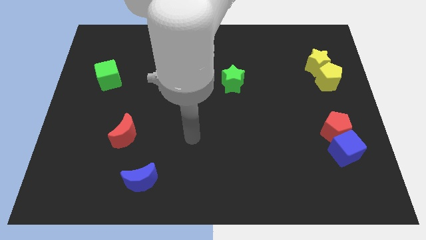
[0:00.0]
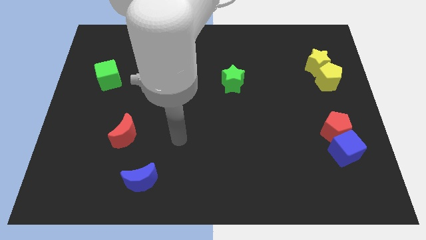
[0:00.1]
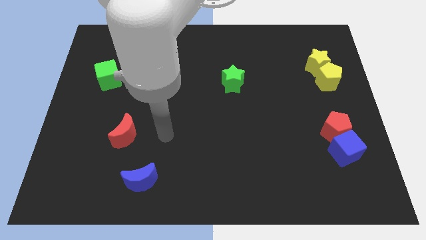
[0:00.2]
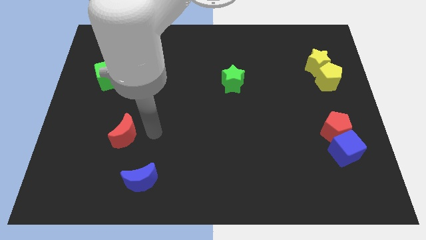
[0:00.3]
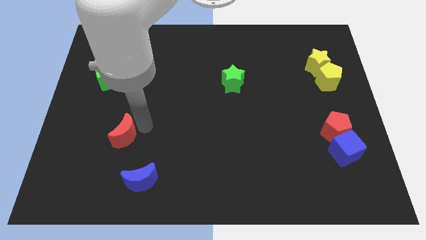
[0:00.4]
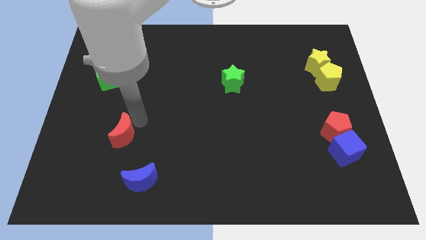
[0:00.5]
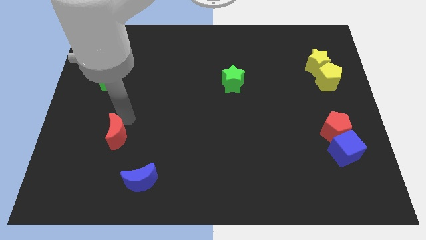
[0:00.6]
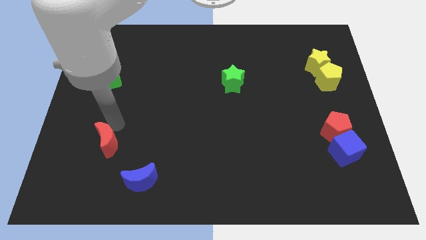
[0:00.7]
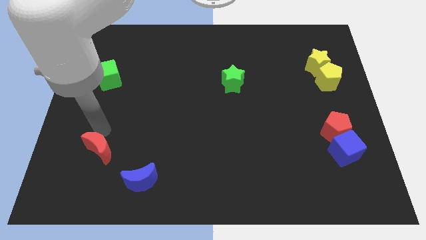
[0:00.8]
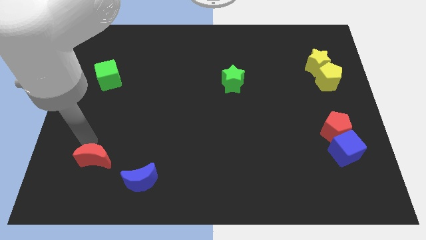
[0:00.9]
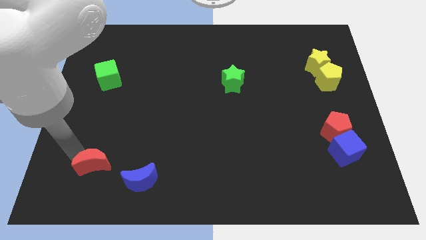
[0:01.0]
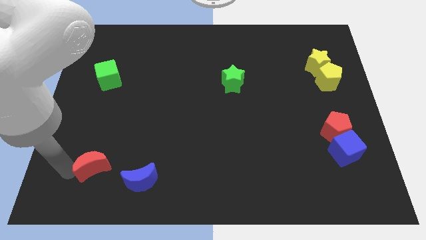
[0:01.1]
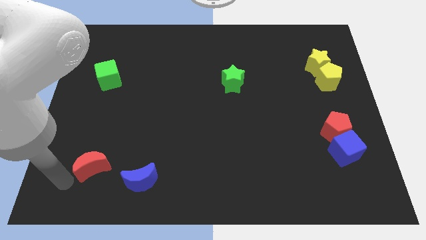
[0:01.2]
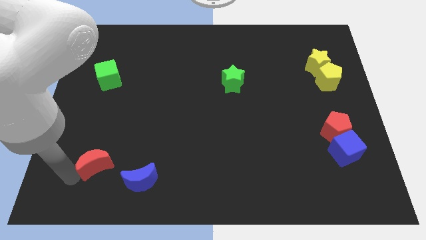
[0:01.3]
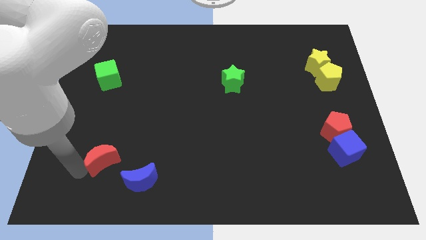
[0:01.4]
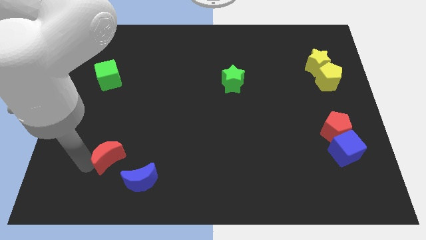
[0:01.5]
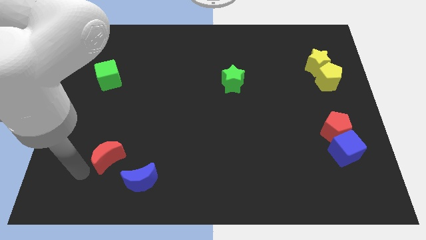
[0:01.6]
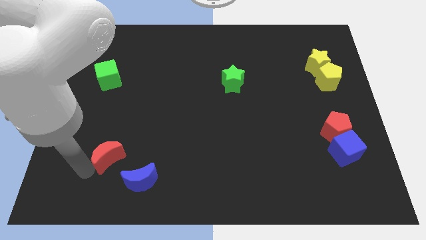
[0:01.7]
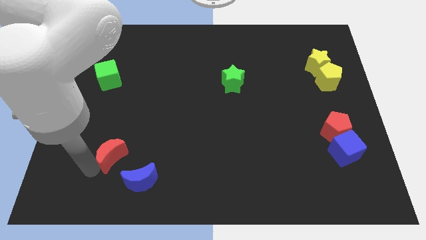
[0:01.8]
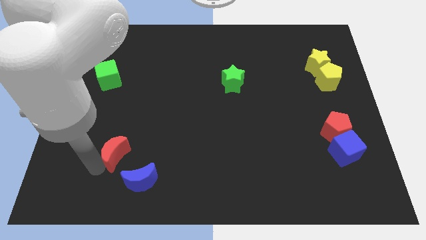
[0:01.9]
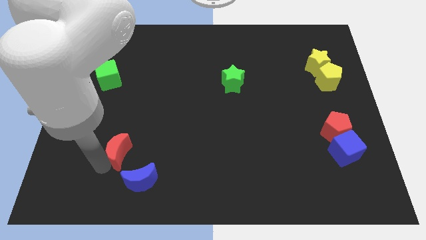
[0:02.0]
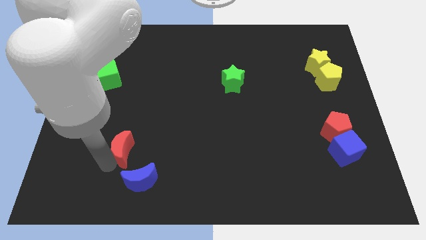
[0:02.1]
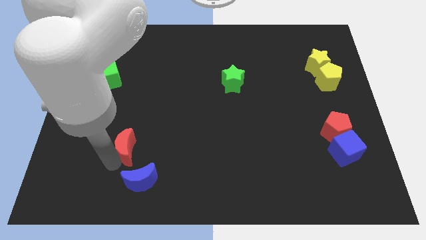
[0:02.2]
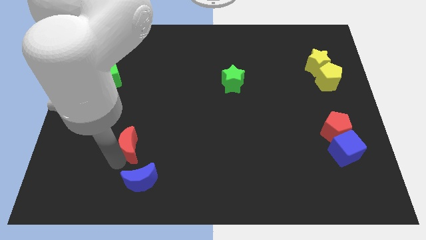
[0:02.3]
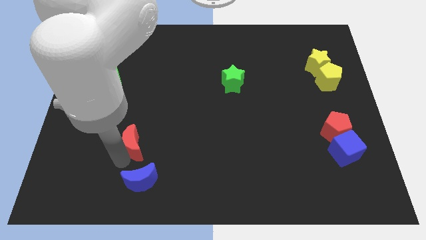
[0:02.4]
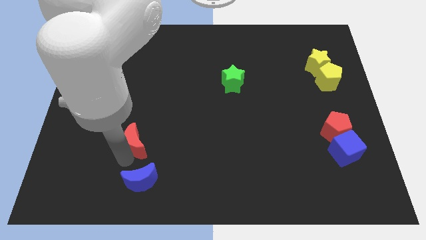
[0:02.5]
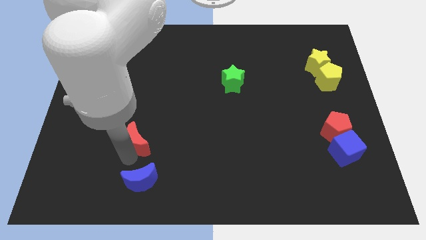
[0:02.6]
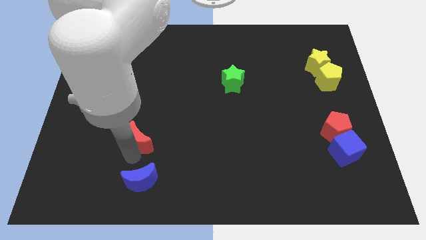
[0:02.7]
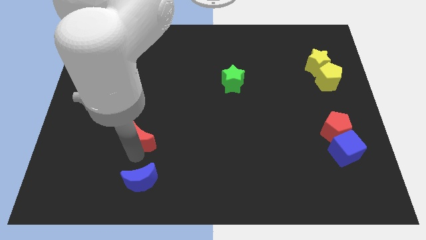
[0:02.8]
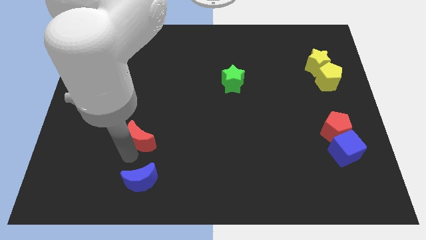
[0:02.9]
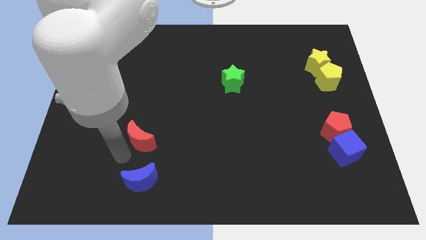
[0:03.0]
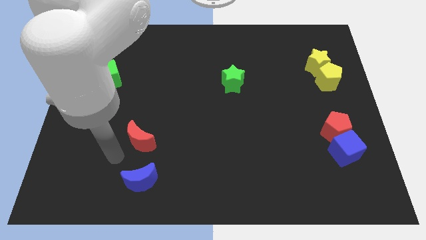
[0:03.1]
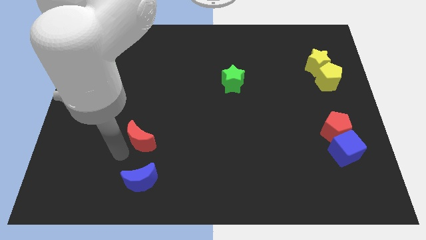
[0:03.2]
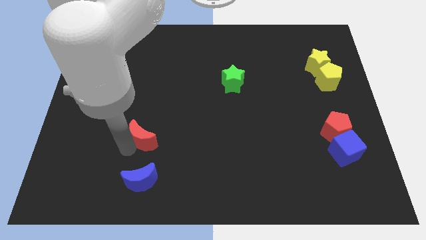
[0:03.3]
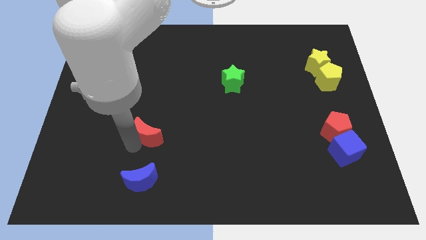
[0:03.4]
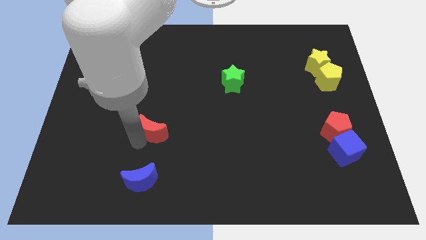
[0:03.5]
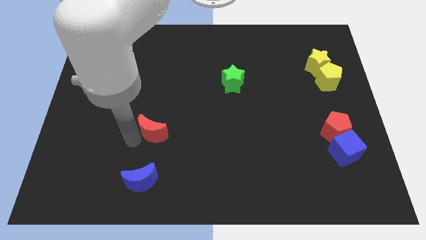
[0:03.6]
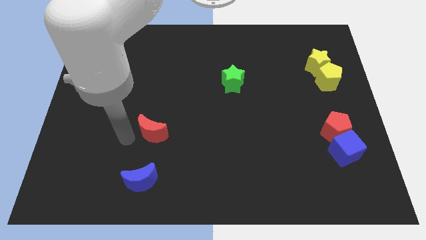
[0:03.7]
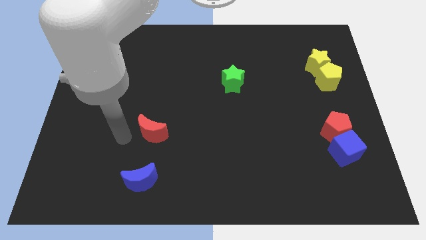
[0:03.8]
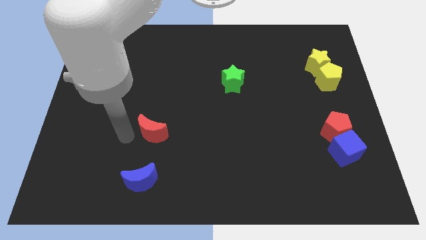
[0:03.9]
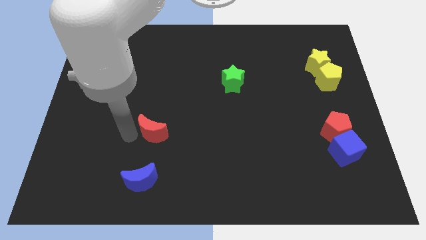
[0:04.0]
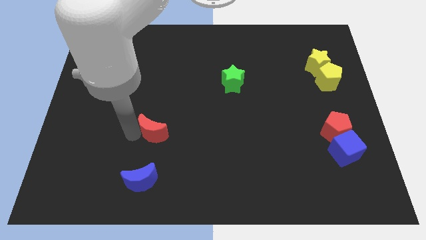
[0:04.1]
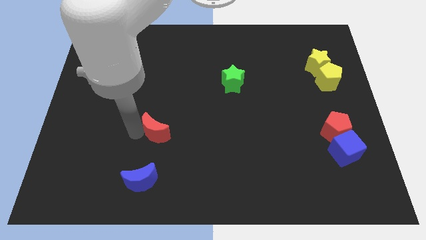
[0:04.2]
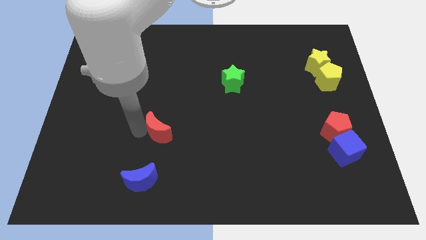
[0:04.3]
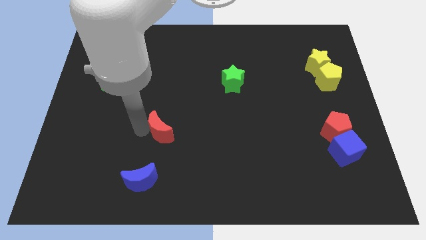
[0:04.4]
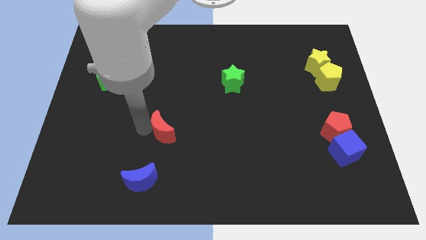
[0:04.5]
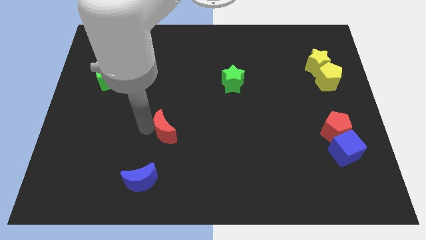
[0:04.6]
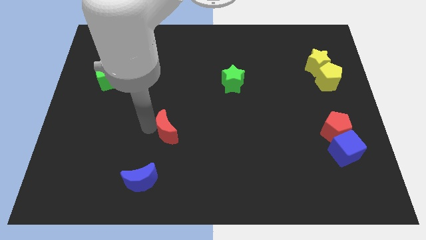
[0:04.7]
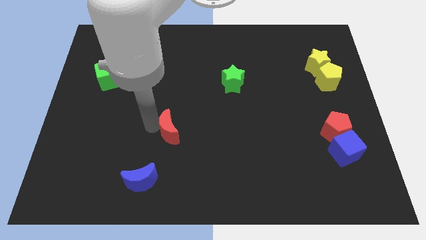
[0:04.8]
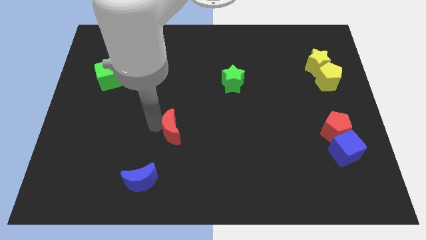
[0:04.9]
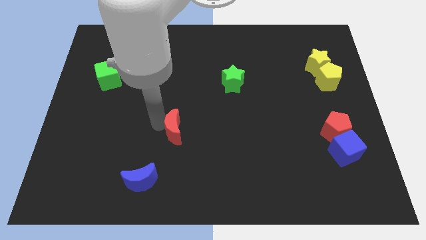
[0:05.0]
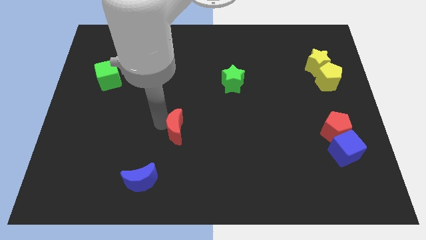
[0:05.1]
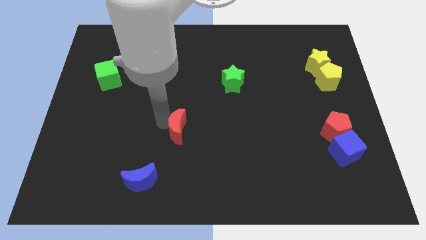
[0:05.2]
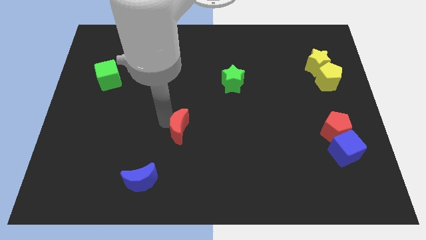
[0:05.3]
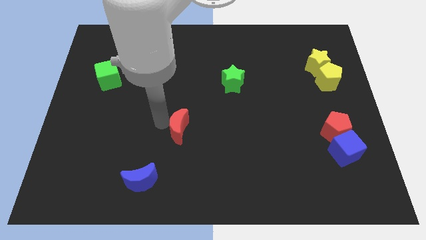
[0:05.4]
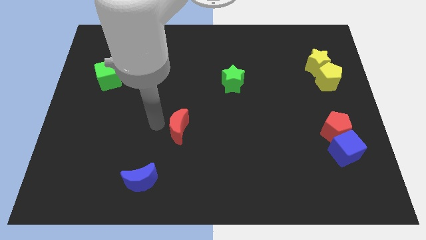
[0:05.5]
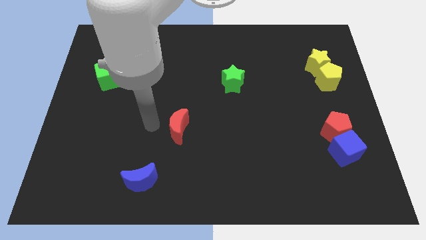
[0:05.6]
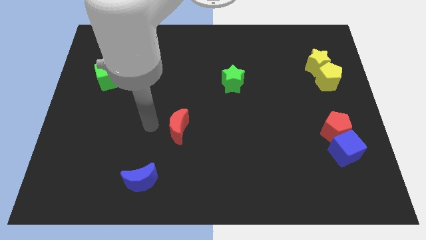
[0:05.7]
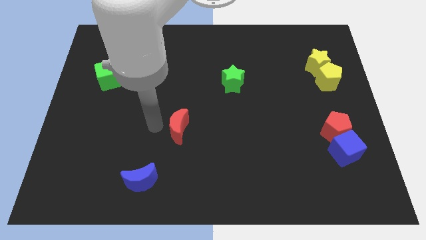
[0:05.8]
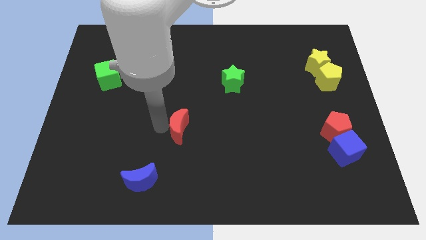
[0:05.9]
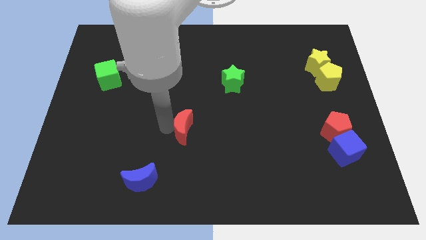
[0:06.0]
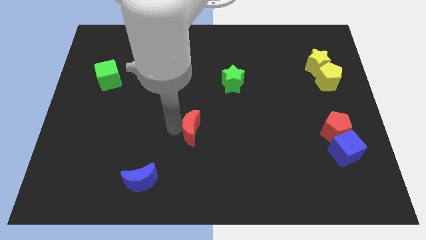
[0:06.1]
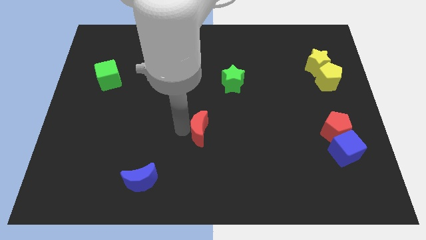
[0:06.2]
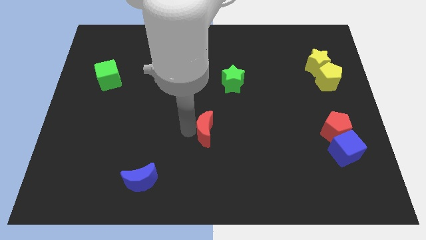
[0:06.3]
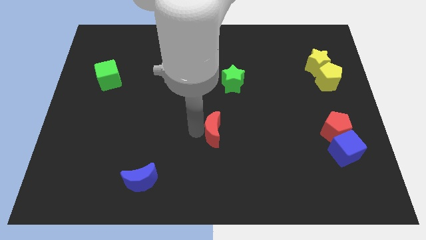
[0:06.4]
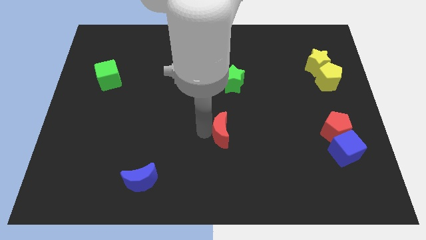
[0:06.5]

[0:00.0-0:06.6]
push the red moon to the right

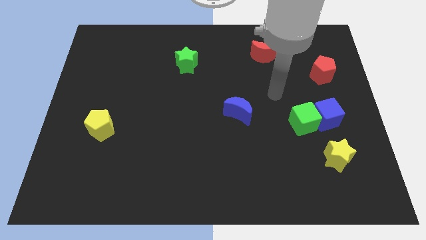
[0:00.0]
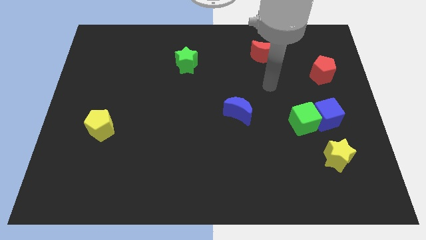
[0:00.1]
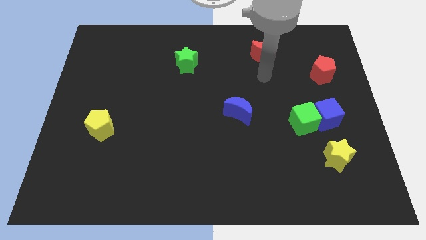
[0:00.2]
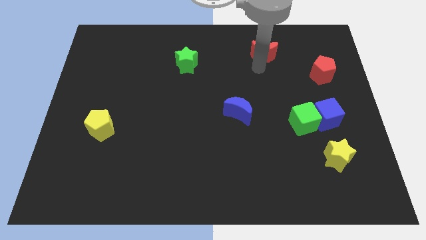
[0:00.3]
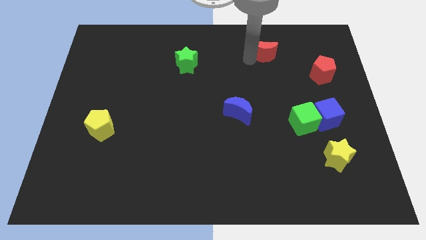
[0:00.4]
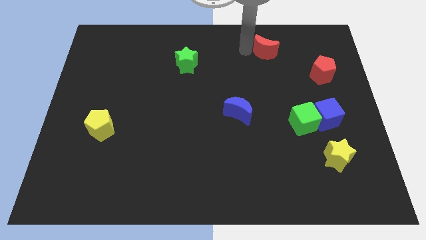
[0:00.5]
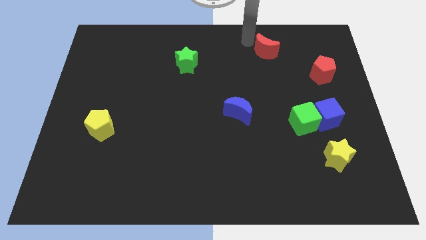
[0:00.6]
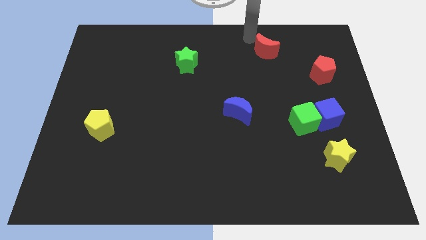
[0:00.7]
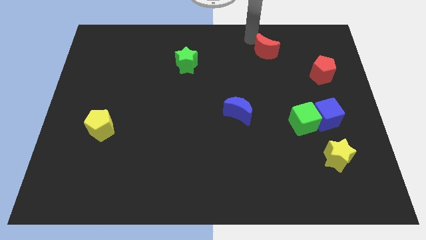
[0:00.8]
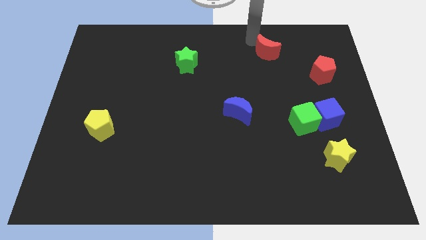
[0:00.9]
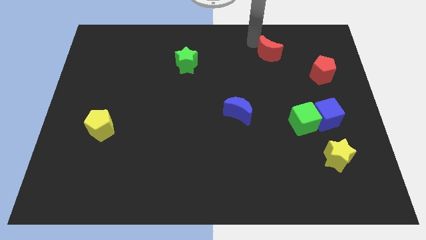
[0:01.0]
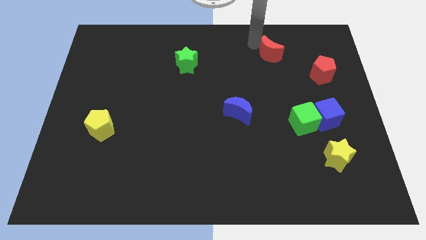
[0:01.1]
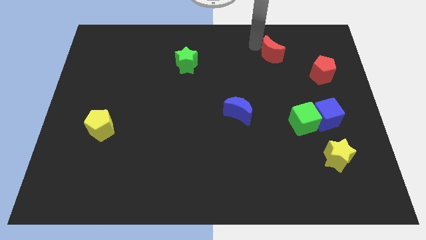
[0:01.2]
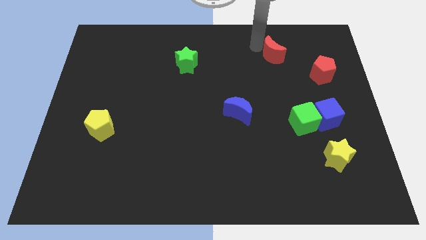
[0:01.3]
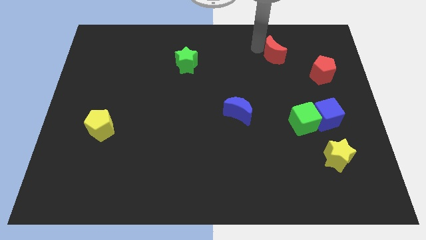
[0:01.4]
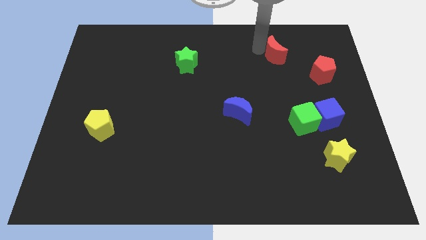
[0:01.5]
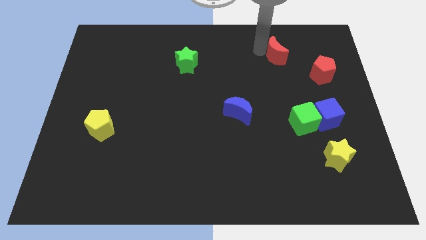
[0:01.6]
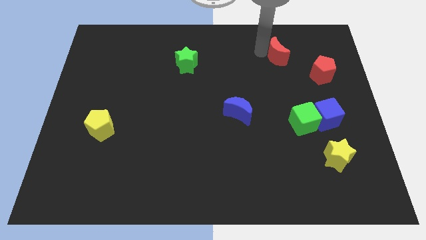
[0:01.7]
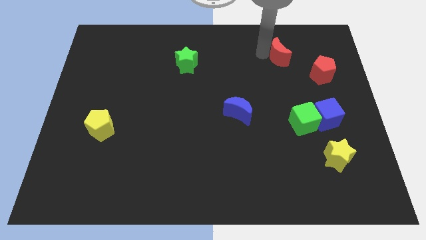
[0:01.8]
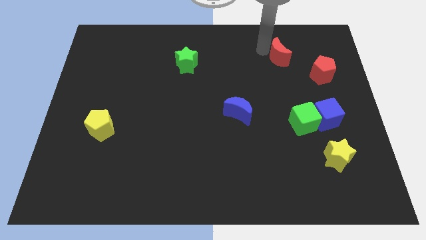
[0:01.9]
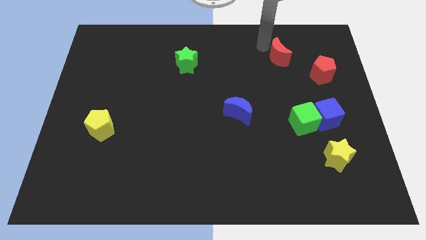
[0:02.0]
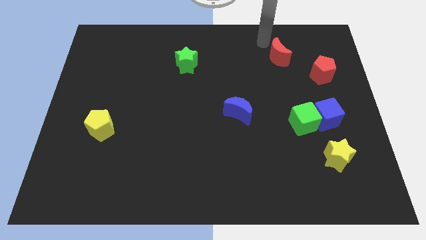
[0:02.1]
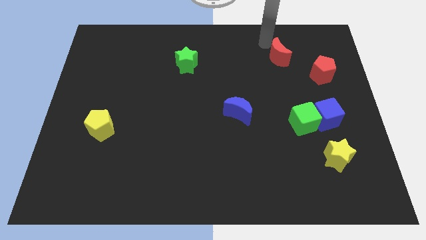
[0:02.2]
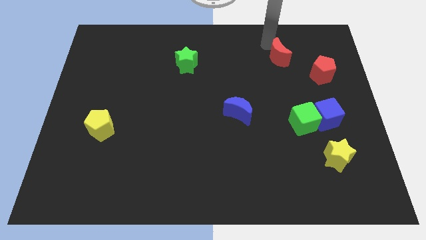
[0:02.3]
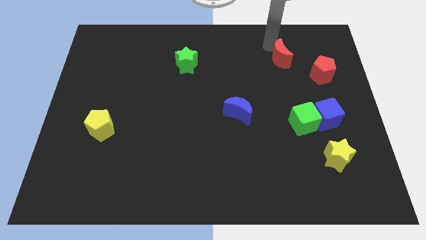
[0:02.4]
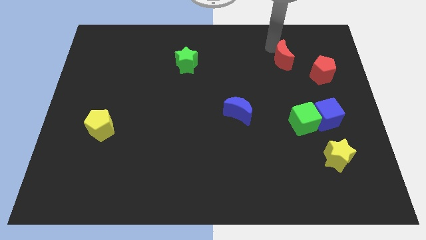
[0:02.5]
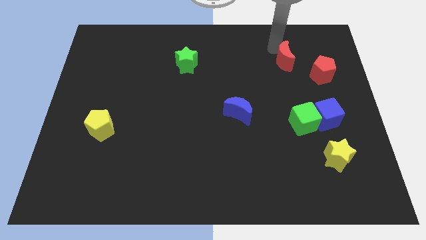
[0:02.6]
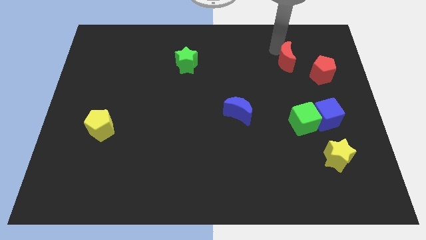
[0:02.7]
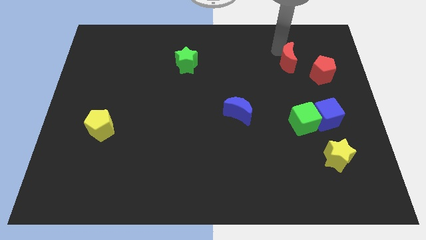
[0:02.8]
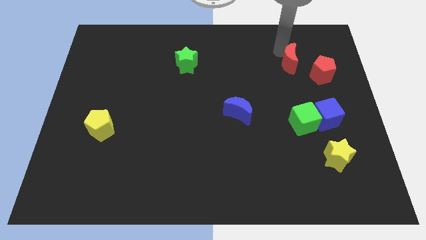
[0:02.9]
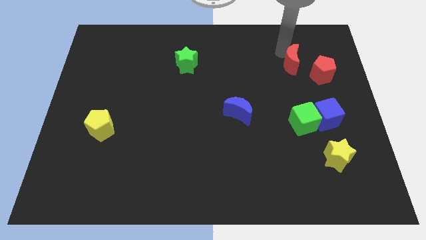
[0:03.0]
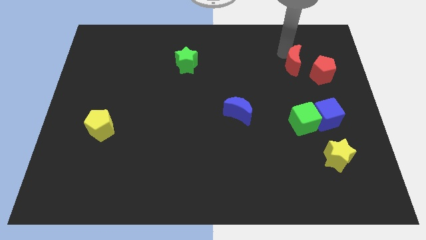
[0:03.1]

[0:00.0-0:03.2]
slightly slide the red moon down and right diagonally
